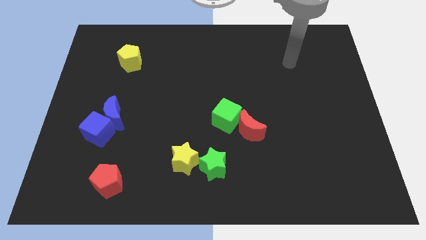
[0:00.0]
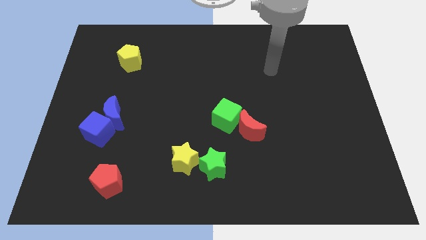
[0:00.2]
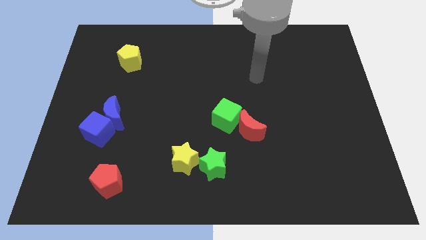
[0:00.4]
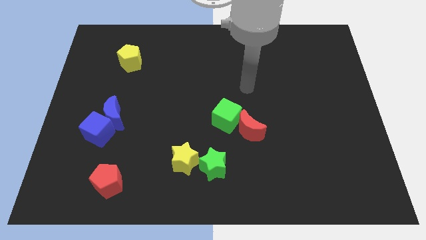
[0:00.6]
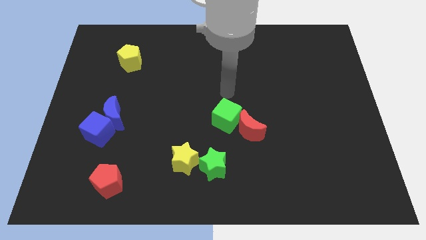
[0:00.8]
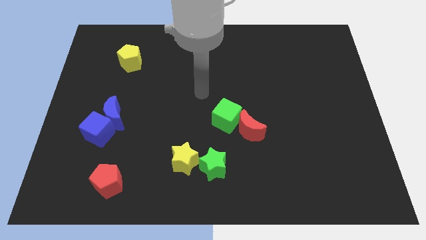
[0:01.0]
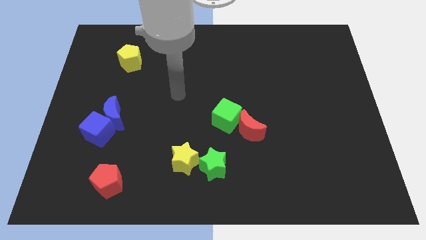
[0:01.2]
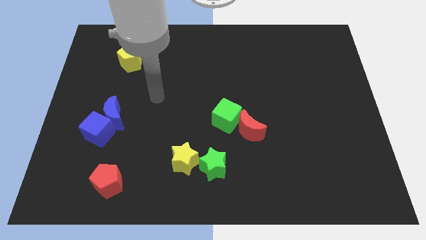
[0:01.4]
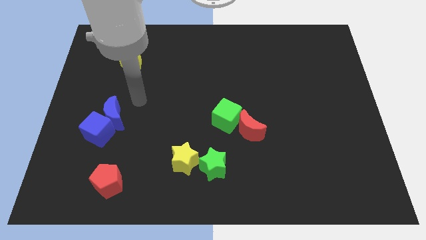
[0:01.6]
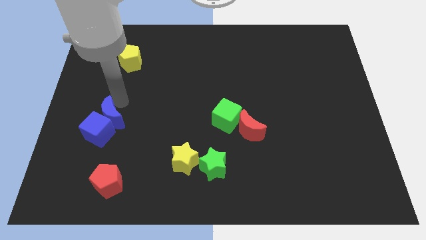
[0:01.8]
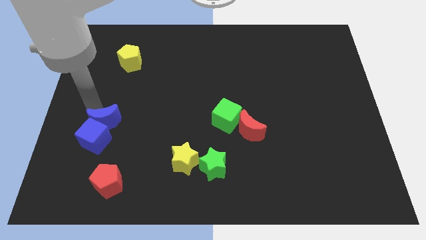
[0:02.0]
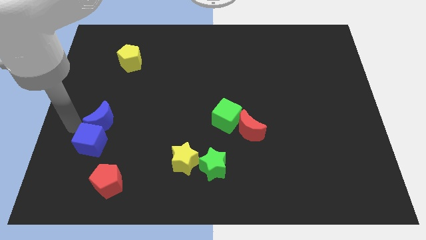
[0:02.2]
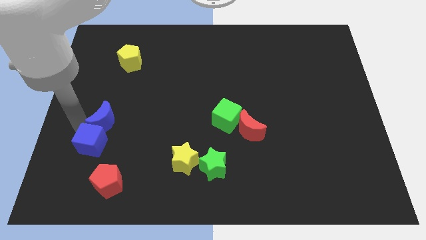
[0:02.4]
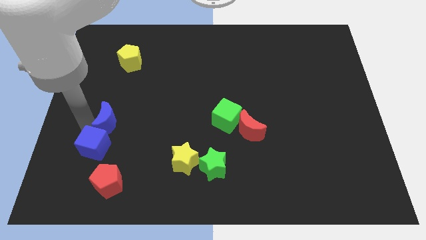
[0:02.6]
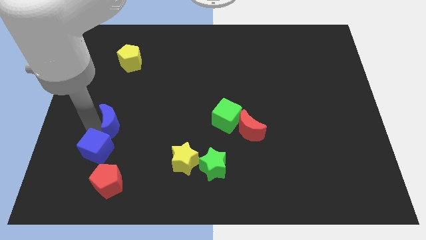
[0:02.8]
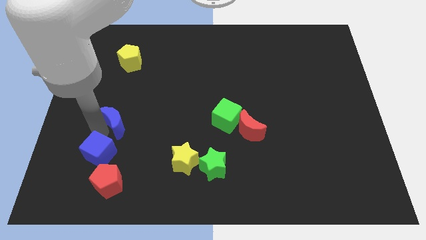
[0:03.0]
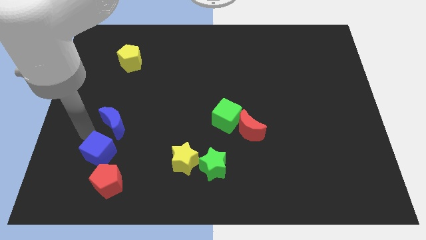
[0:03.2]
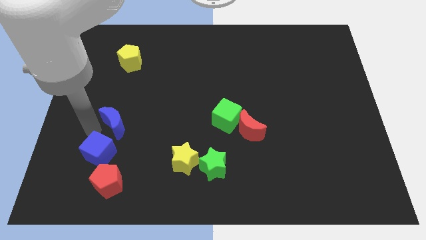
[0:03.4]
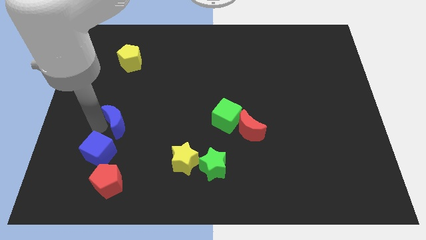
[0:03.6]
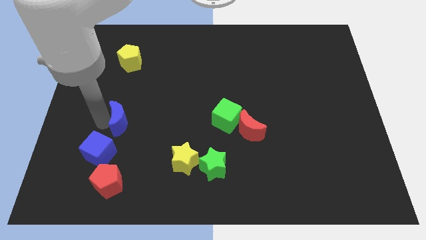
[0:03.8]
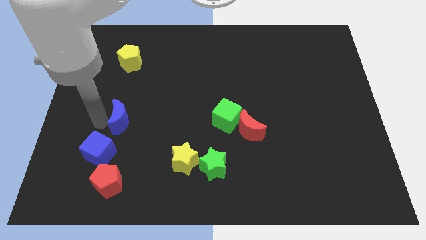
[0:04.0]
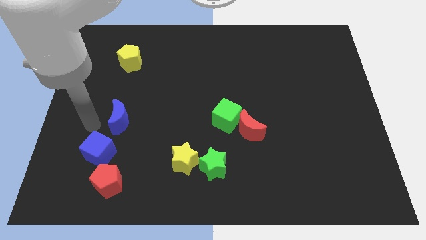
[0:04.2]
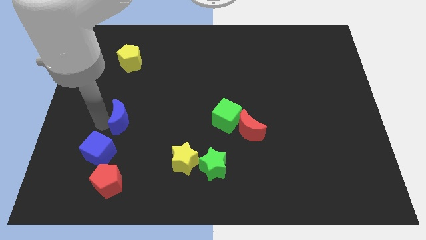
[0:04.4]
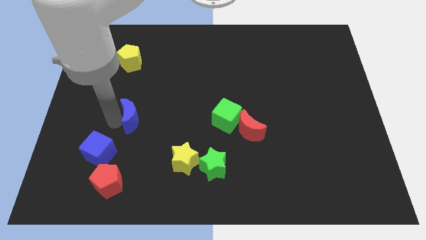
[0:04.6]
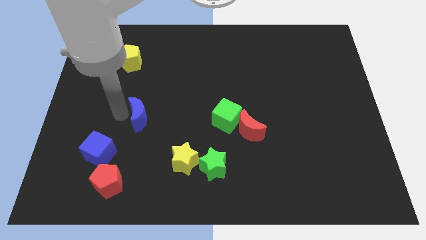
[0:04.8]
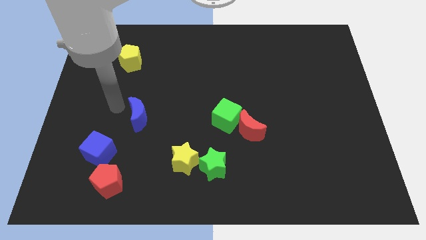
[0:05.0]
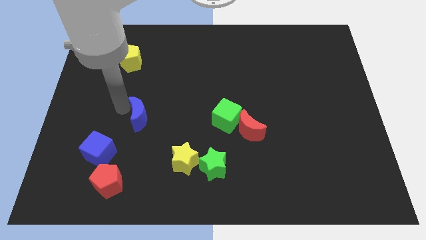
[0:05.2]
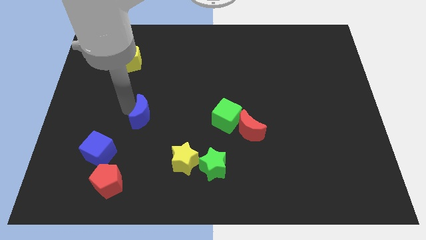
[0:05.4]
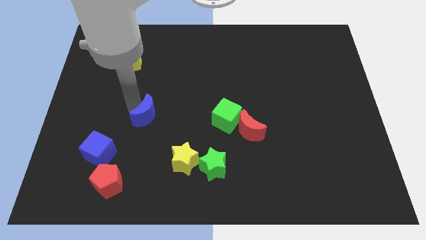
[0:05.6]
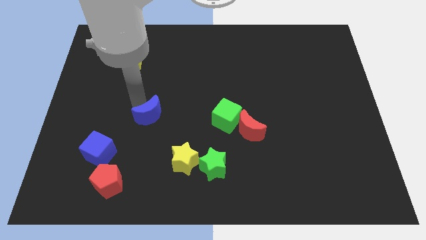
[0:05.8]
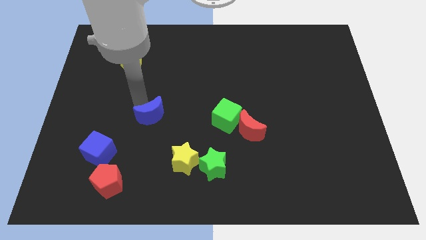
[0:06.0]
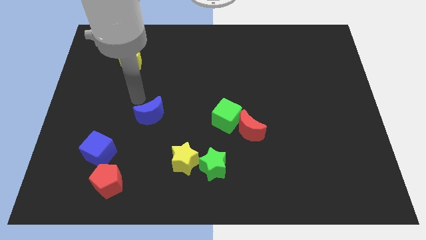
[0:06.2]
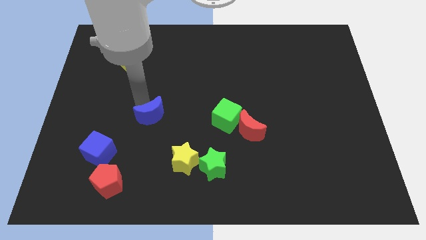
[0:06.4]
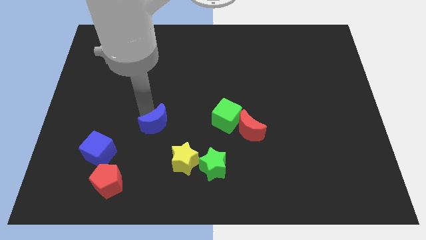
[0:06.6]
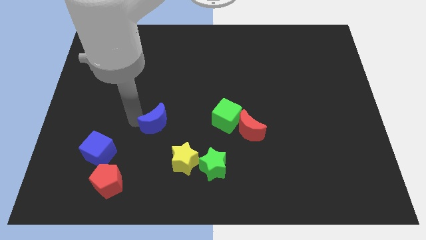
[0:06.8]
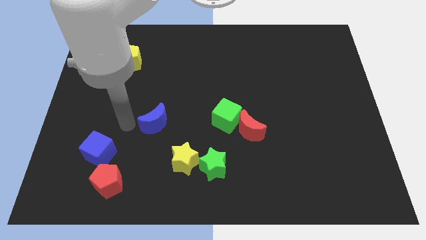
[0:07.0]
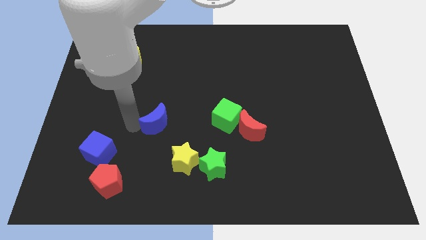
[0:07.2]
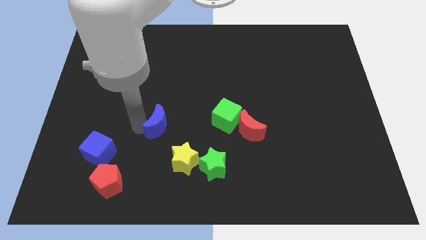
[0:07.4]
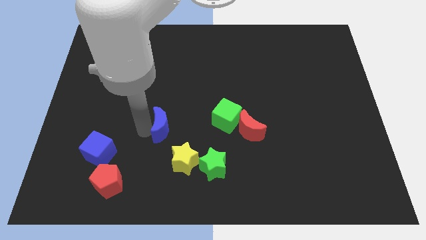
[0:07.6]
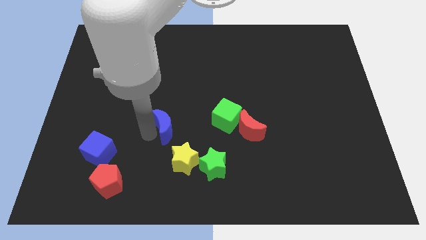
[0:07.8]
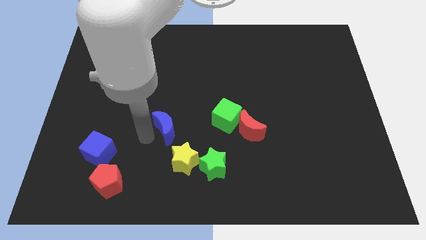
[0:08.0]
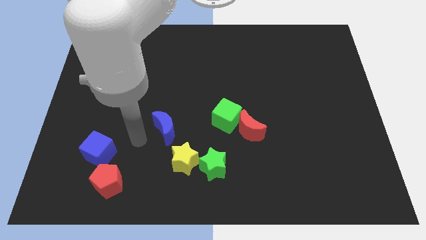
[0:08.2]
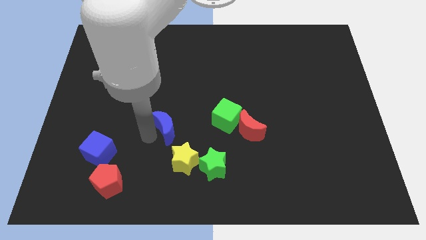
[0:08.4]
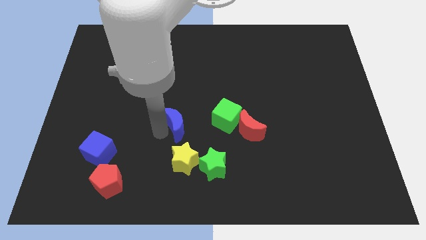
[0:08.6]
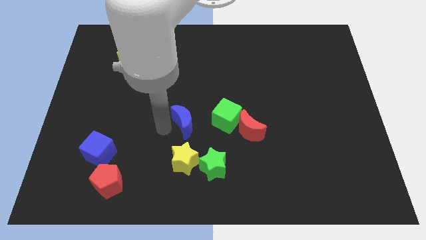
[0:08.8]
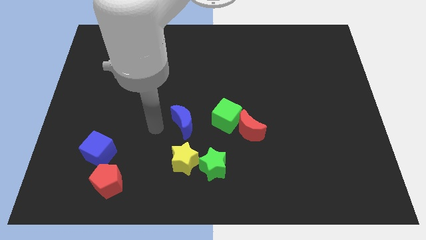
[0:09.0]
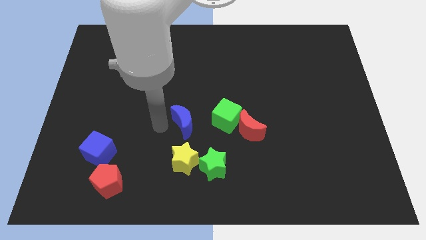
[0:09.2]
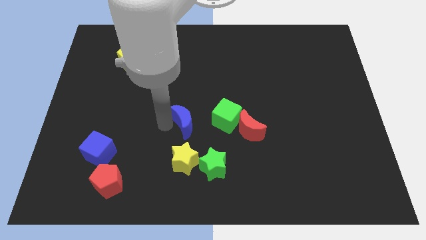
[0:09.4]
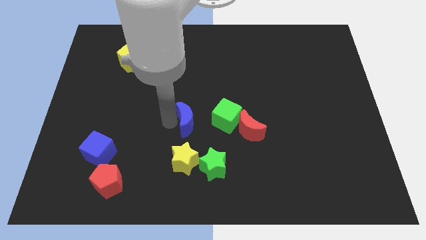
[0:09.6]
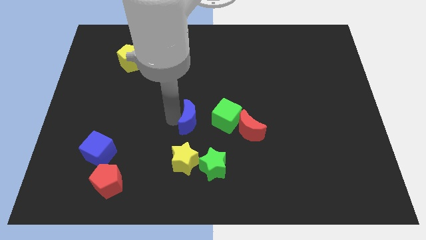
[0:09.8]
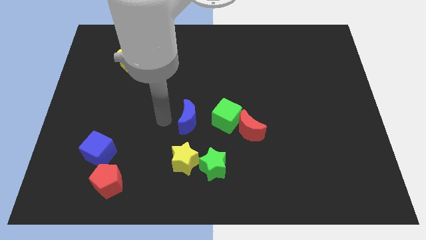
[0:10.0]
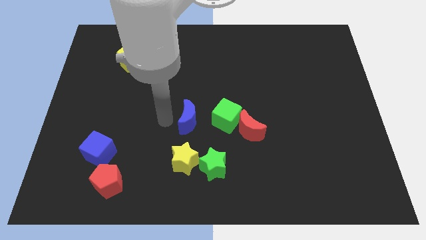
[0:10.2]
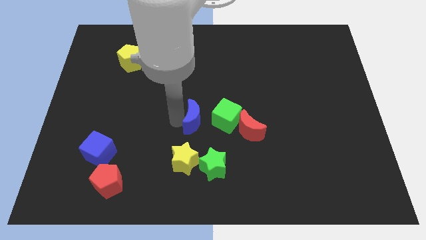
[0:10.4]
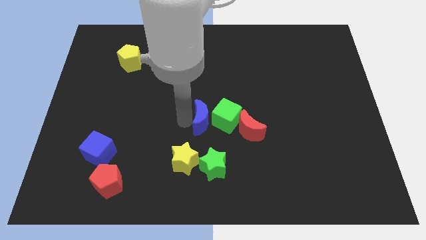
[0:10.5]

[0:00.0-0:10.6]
push the blue moon close to the green cube

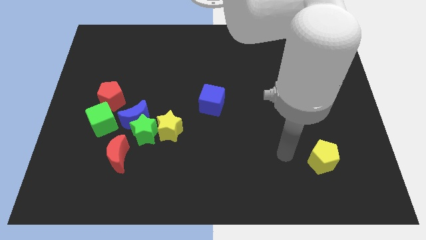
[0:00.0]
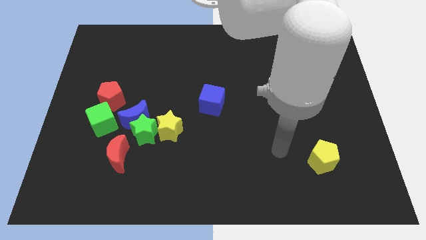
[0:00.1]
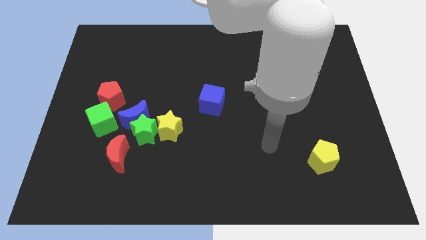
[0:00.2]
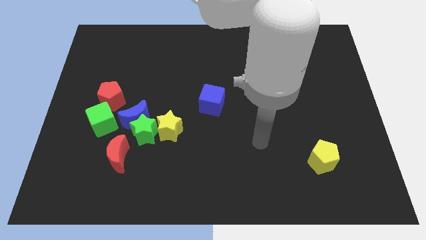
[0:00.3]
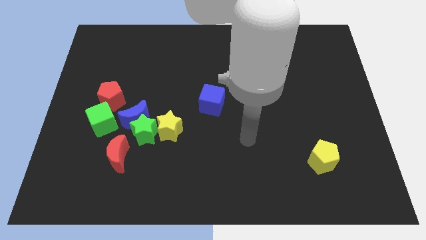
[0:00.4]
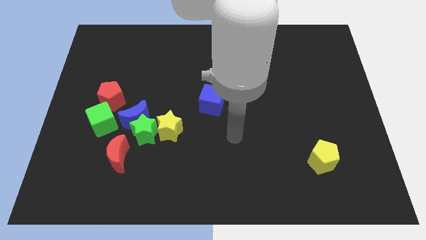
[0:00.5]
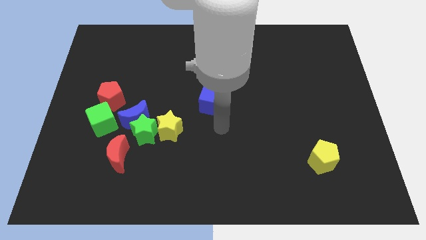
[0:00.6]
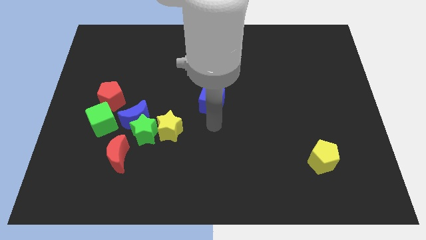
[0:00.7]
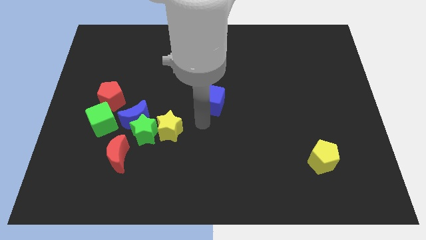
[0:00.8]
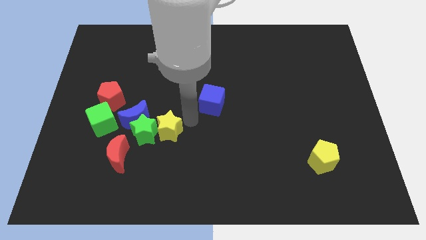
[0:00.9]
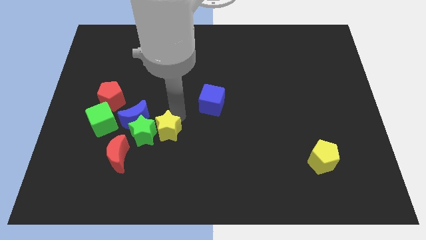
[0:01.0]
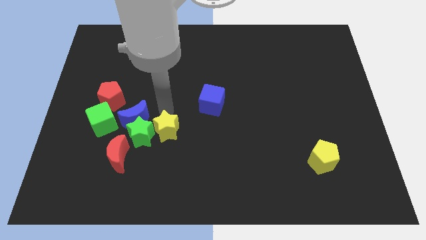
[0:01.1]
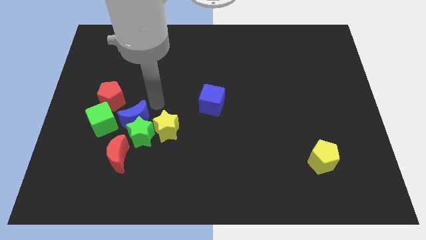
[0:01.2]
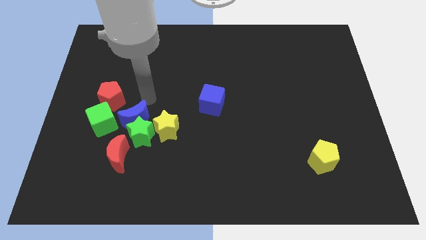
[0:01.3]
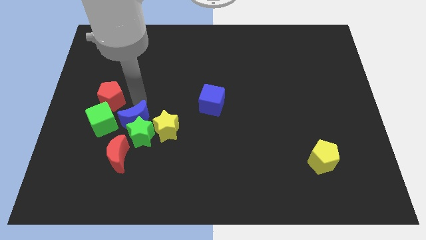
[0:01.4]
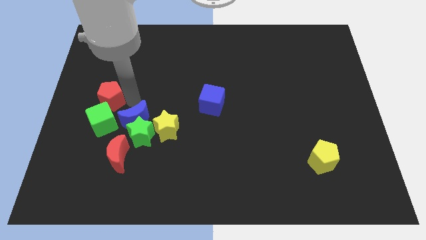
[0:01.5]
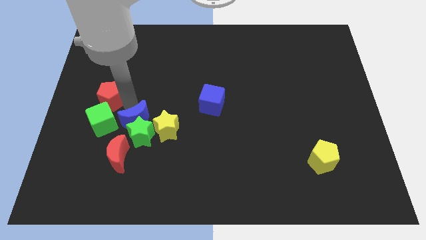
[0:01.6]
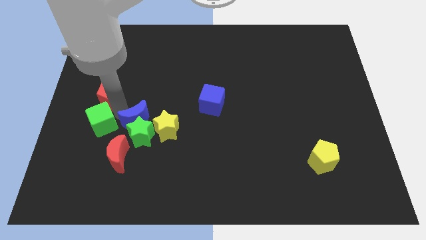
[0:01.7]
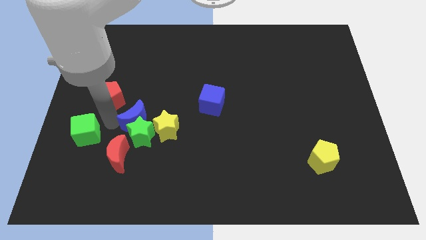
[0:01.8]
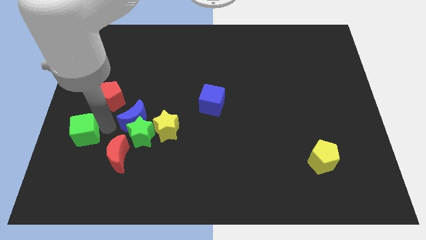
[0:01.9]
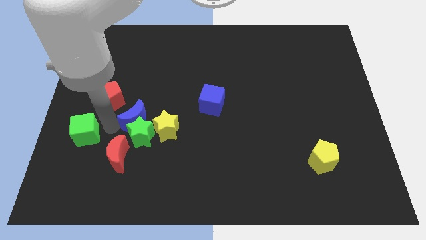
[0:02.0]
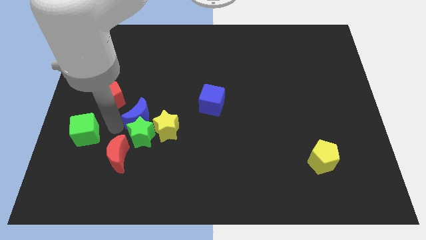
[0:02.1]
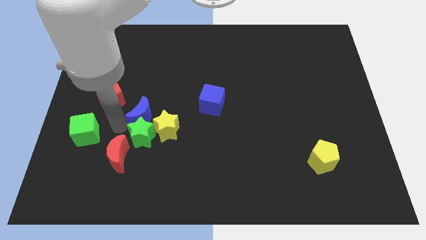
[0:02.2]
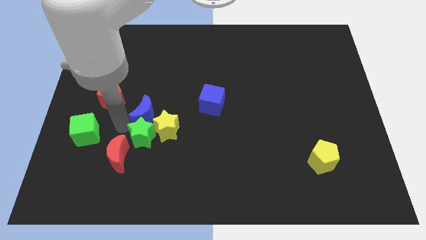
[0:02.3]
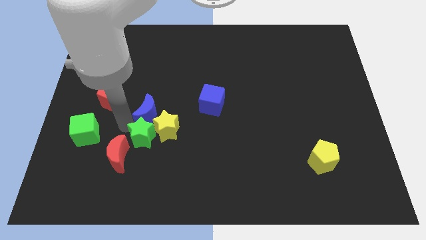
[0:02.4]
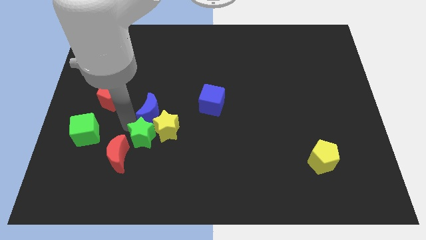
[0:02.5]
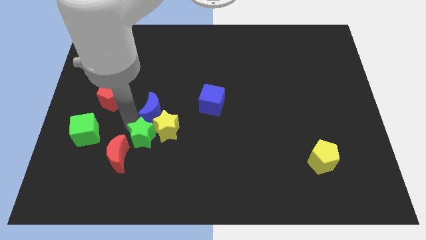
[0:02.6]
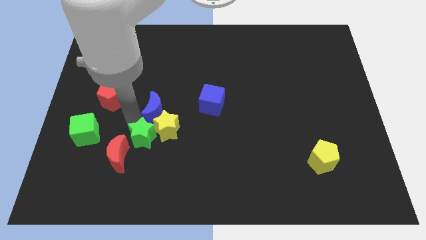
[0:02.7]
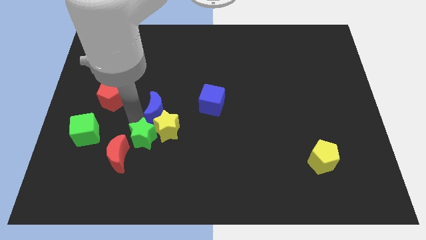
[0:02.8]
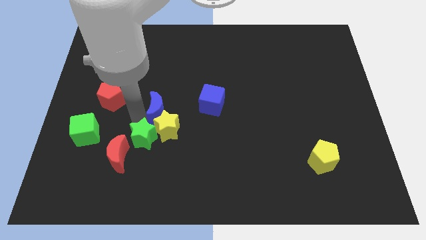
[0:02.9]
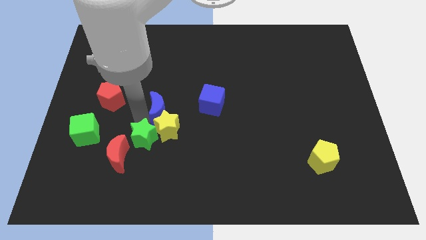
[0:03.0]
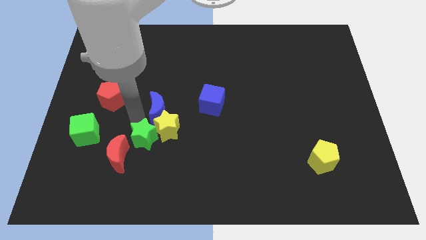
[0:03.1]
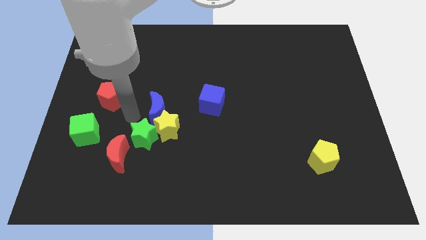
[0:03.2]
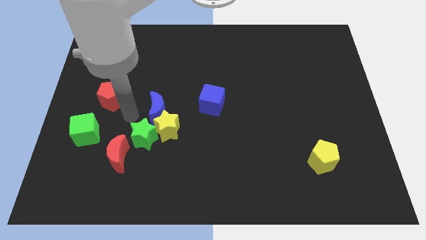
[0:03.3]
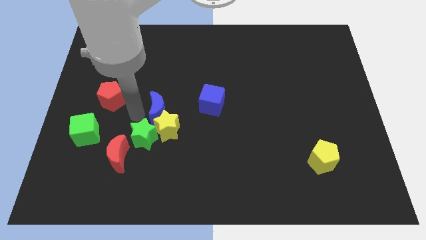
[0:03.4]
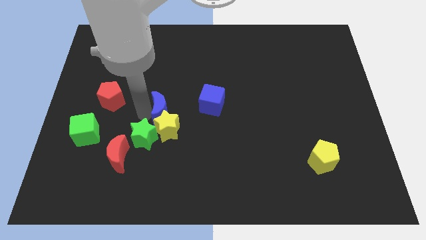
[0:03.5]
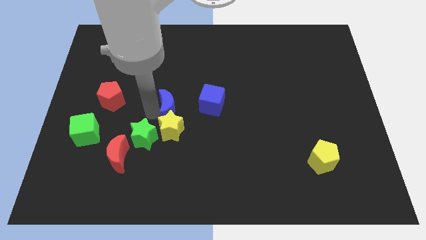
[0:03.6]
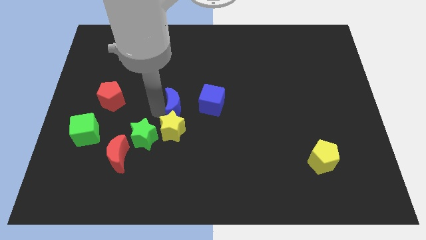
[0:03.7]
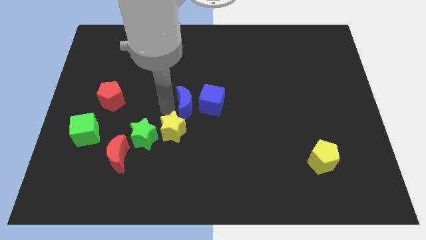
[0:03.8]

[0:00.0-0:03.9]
push the blue moon close to the blue cube
